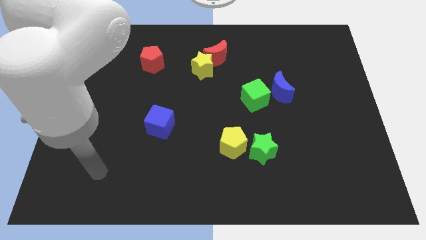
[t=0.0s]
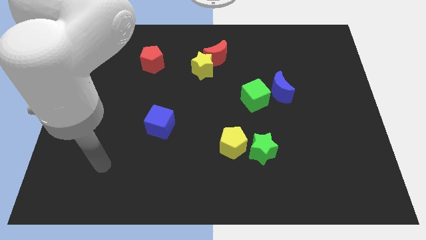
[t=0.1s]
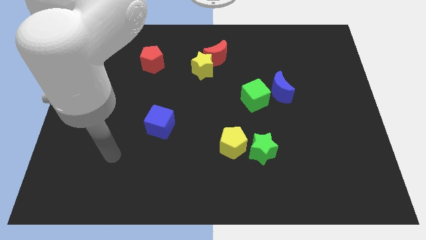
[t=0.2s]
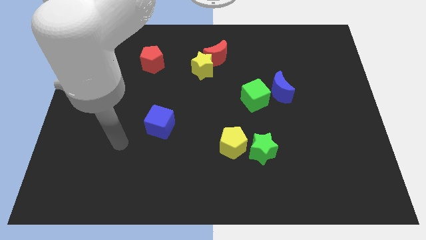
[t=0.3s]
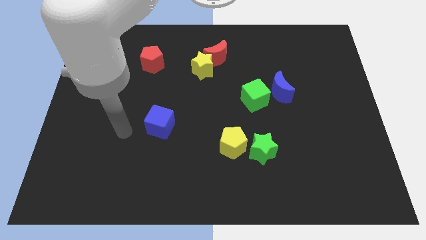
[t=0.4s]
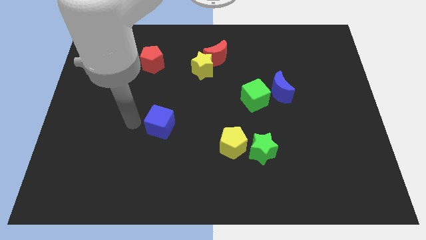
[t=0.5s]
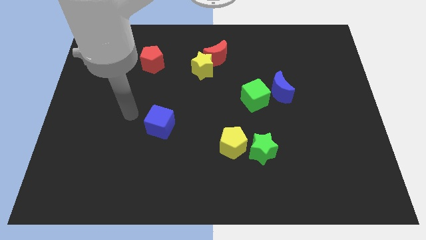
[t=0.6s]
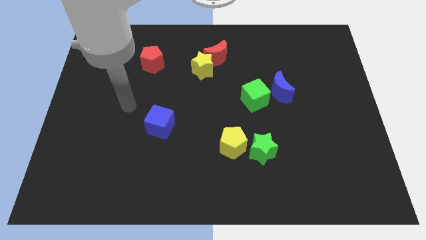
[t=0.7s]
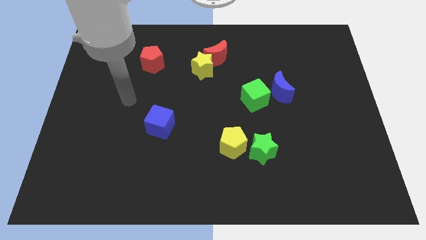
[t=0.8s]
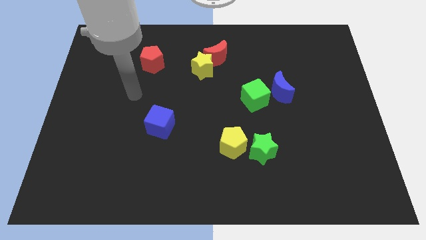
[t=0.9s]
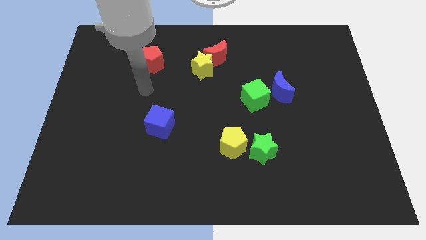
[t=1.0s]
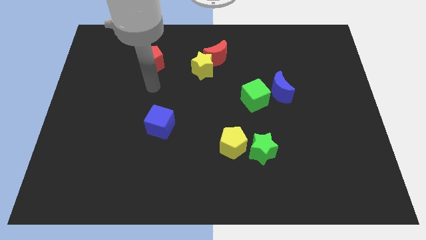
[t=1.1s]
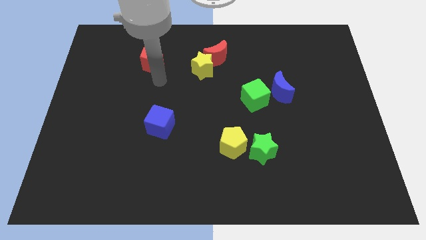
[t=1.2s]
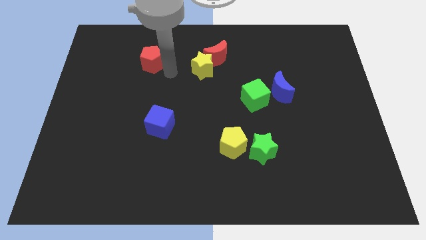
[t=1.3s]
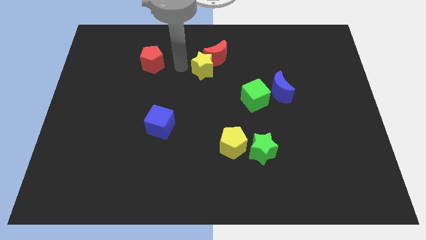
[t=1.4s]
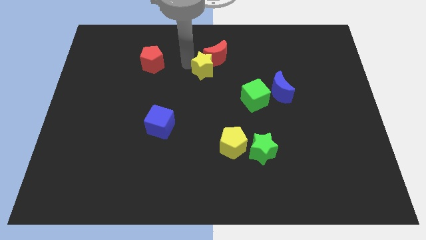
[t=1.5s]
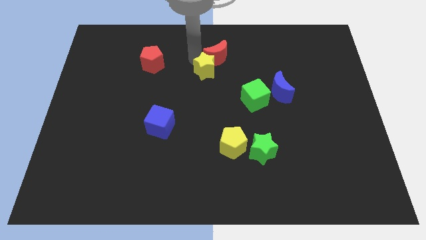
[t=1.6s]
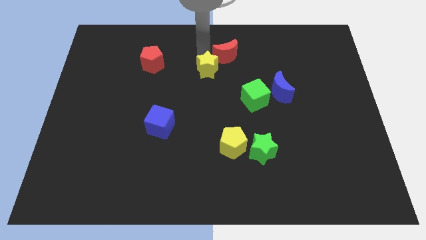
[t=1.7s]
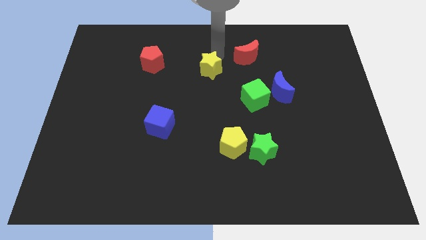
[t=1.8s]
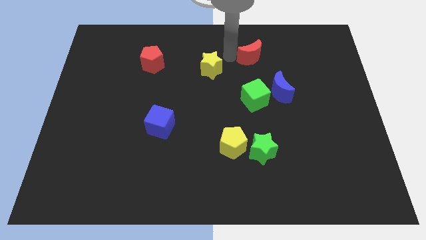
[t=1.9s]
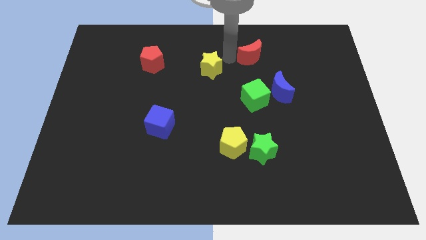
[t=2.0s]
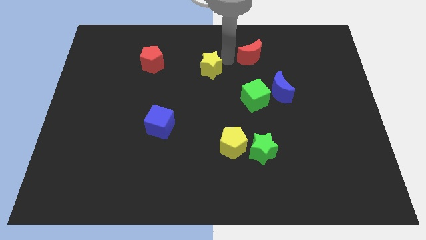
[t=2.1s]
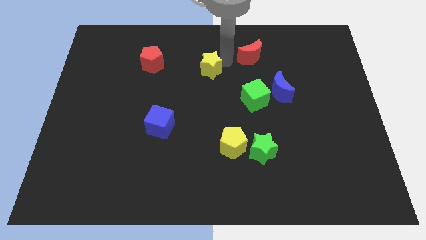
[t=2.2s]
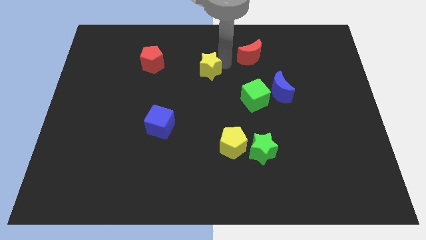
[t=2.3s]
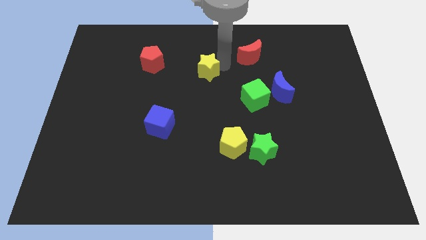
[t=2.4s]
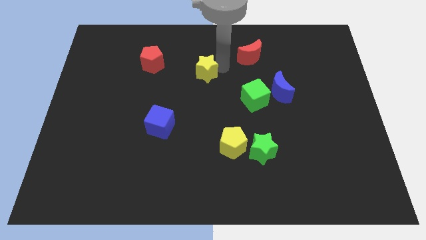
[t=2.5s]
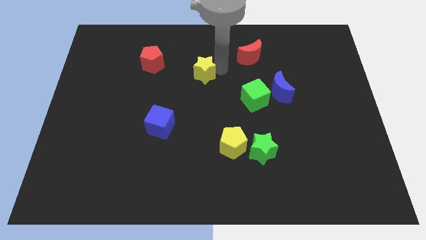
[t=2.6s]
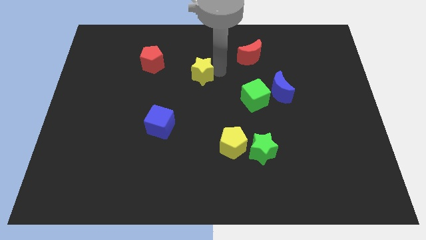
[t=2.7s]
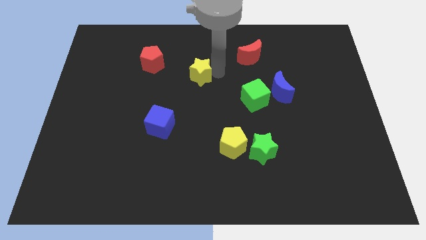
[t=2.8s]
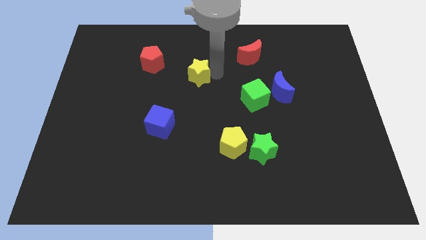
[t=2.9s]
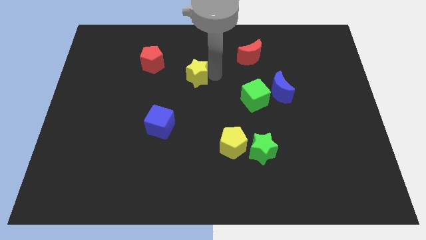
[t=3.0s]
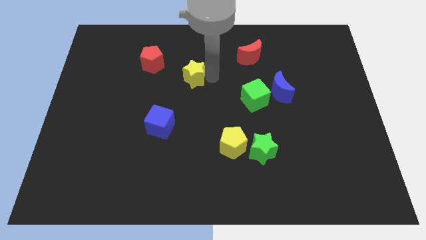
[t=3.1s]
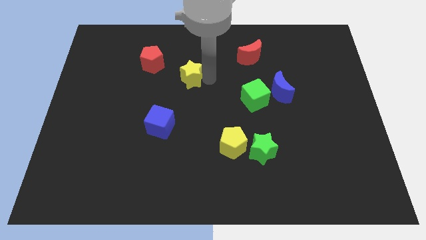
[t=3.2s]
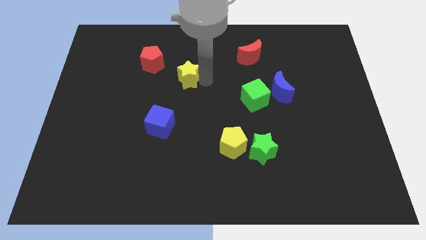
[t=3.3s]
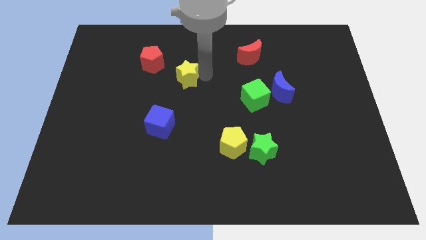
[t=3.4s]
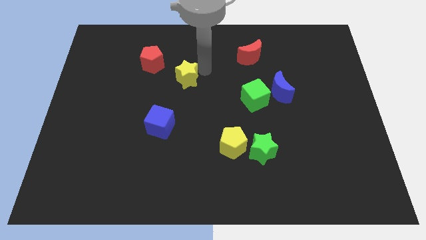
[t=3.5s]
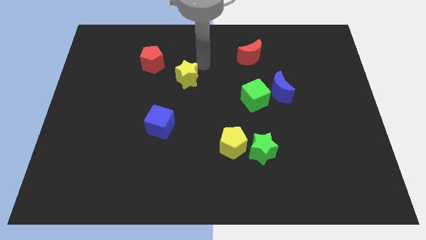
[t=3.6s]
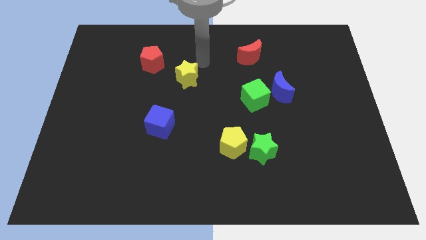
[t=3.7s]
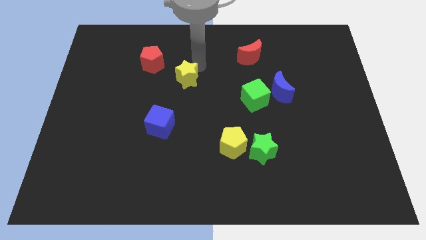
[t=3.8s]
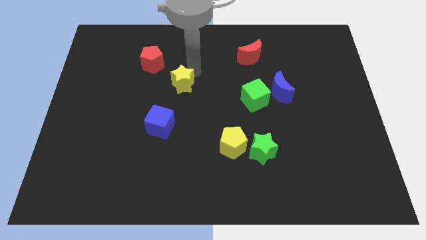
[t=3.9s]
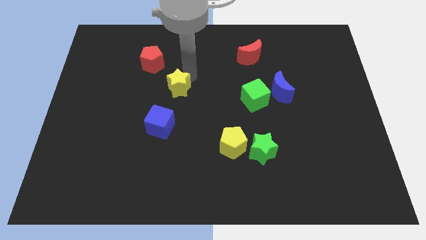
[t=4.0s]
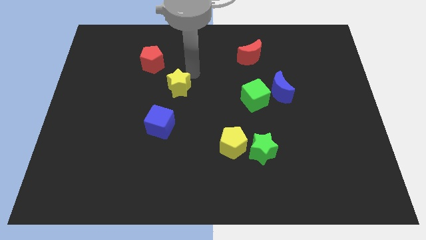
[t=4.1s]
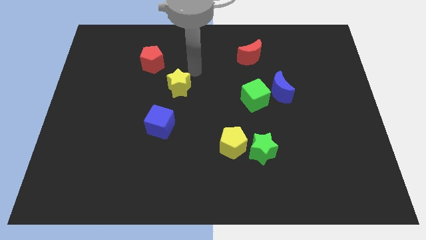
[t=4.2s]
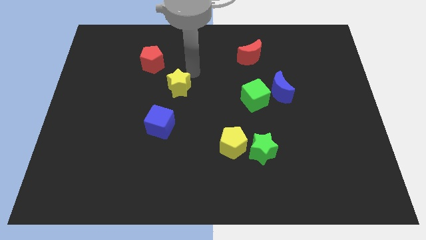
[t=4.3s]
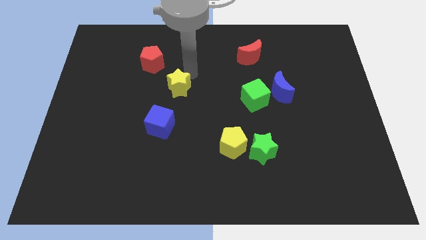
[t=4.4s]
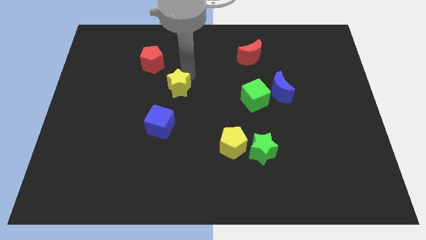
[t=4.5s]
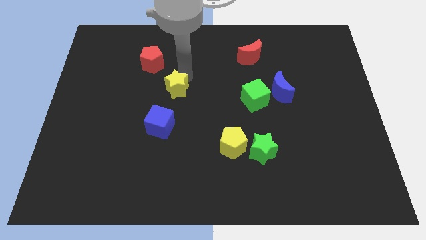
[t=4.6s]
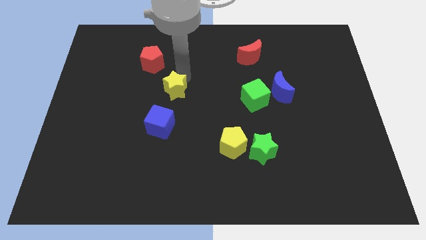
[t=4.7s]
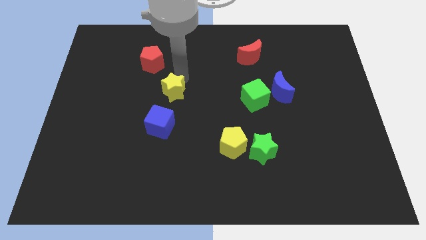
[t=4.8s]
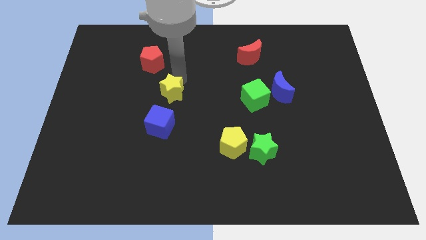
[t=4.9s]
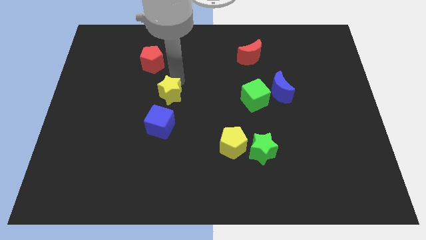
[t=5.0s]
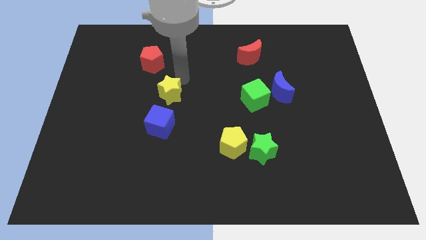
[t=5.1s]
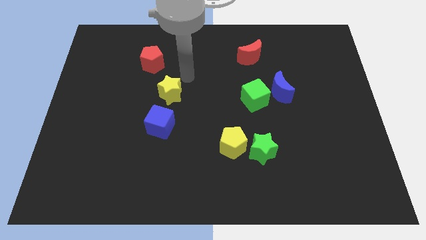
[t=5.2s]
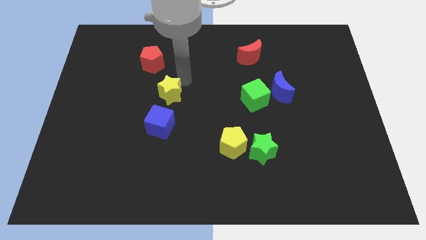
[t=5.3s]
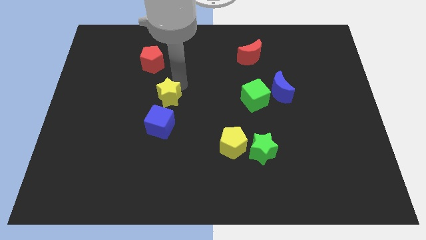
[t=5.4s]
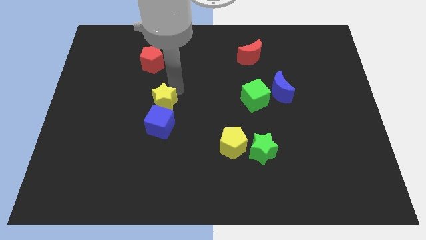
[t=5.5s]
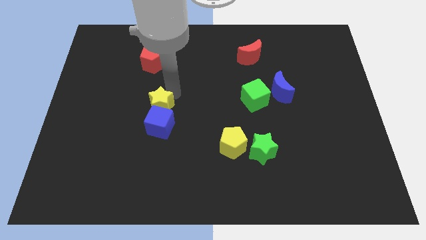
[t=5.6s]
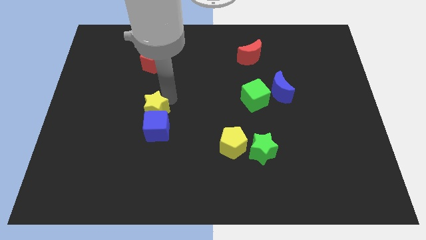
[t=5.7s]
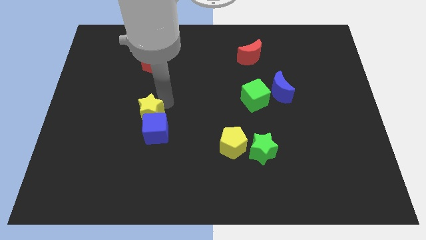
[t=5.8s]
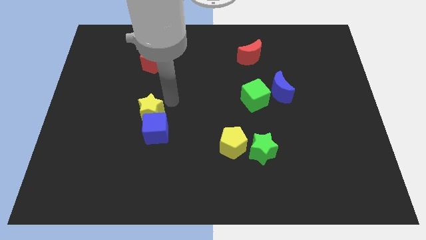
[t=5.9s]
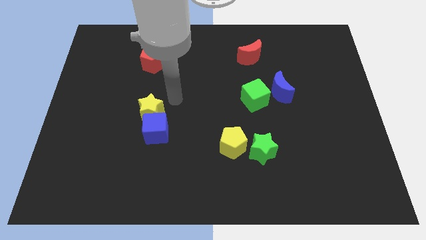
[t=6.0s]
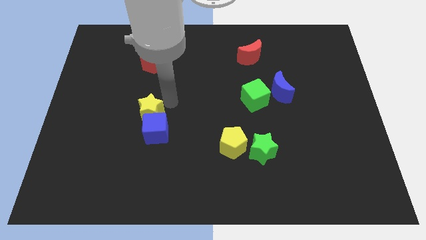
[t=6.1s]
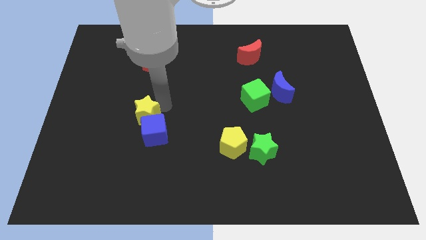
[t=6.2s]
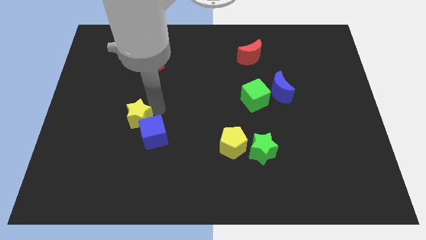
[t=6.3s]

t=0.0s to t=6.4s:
push the yellow star downwards and then left

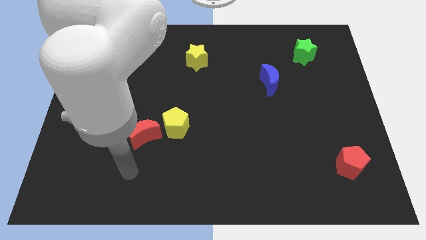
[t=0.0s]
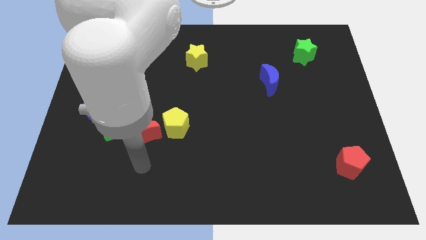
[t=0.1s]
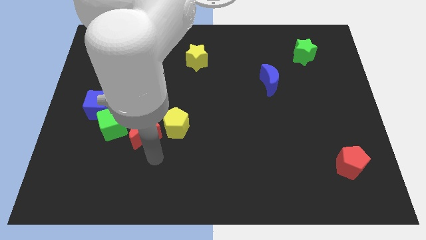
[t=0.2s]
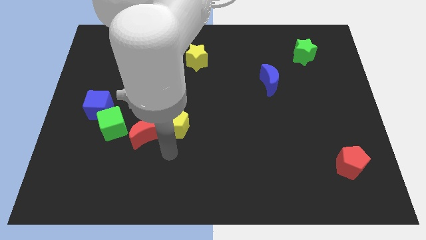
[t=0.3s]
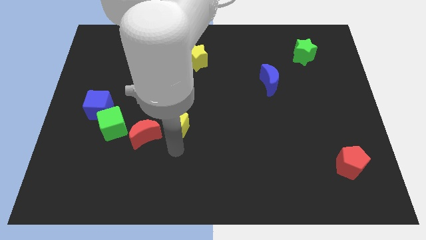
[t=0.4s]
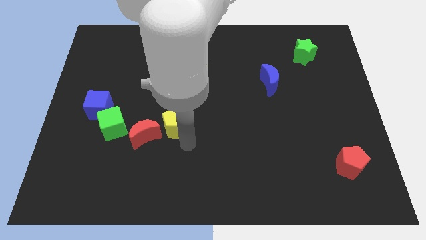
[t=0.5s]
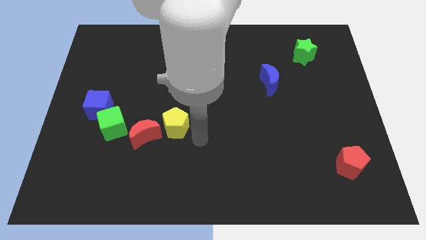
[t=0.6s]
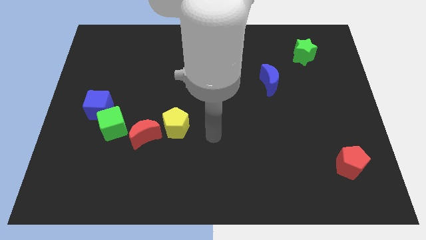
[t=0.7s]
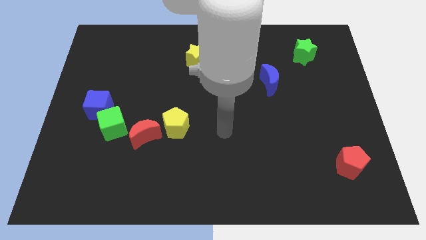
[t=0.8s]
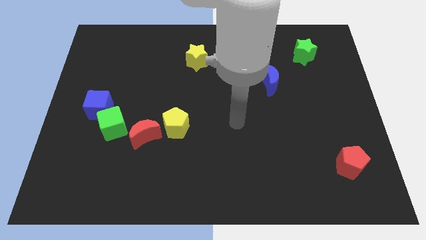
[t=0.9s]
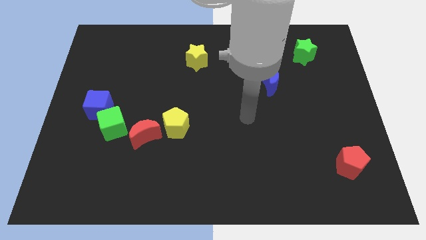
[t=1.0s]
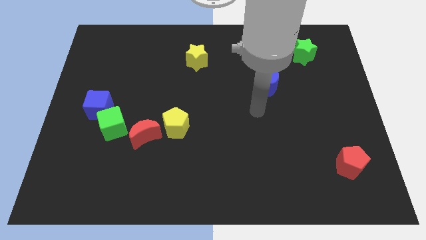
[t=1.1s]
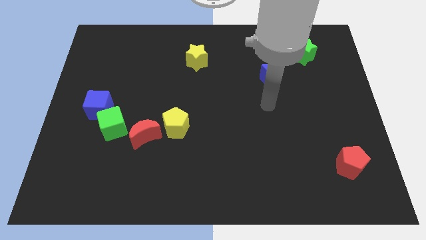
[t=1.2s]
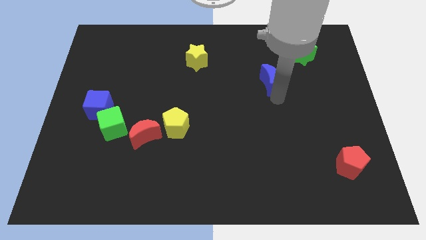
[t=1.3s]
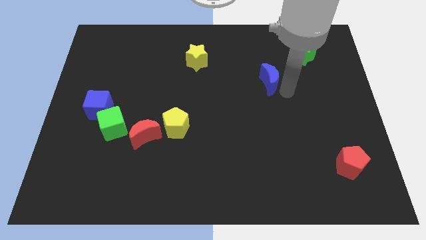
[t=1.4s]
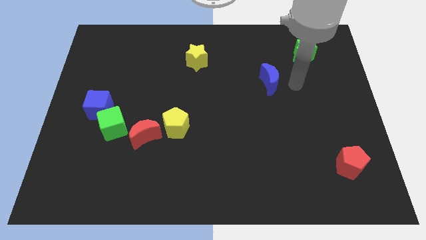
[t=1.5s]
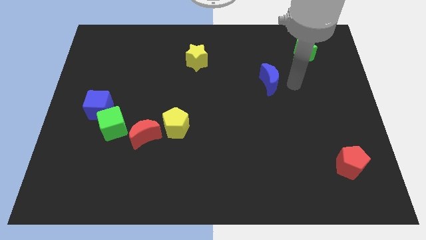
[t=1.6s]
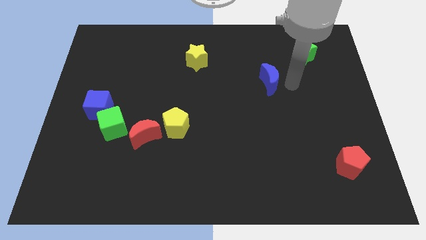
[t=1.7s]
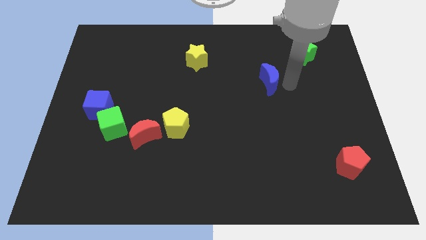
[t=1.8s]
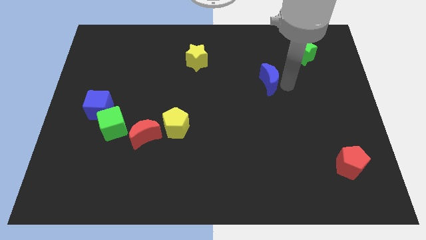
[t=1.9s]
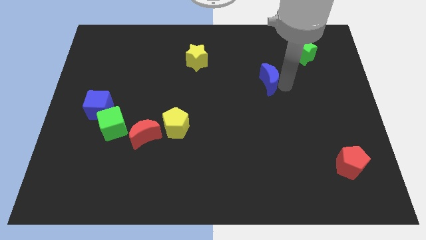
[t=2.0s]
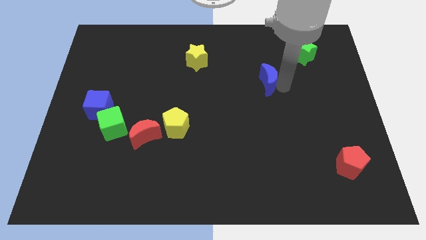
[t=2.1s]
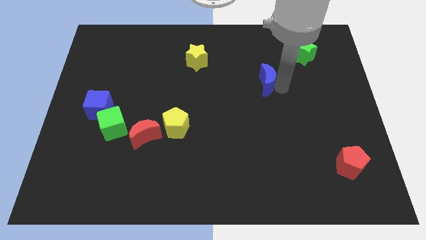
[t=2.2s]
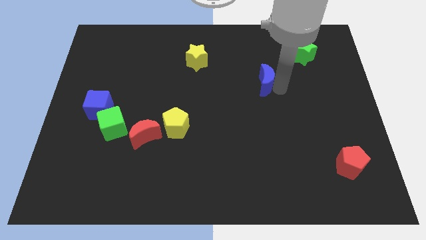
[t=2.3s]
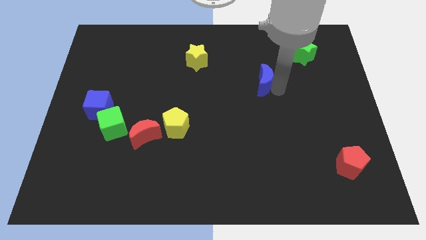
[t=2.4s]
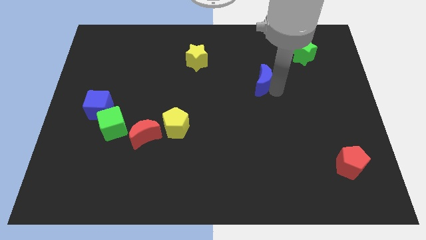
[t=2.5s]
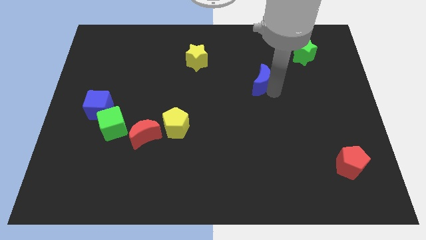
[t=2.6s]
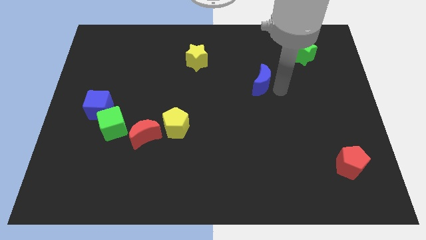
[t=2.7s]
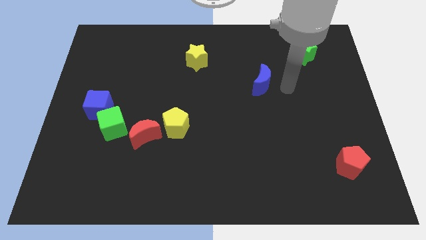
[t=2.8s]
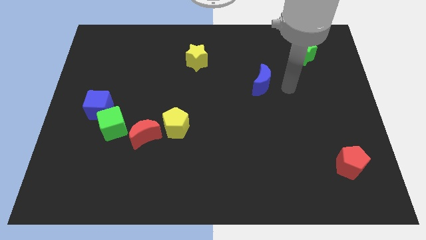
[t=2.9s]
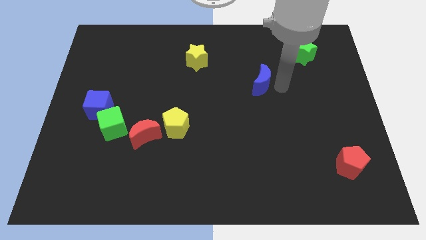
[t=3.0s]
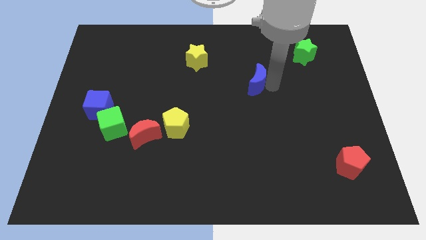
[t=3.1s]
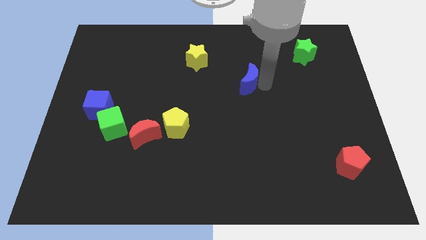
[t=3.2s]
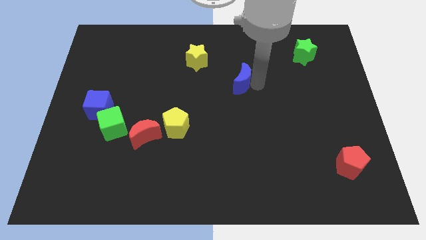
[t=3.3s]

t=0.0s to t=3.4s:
slightly push the blue moon left
